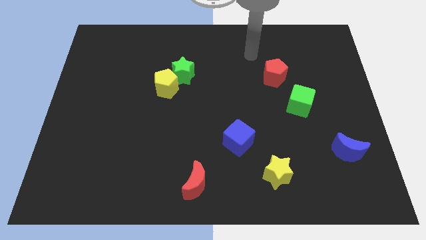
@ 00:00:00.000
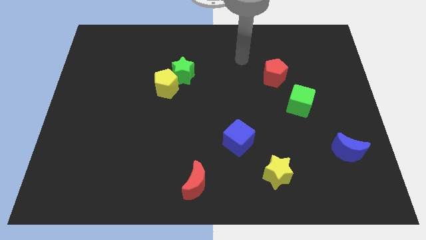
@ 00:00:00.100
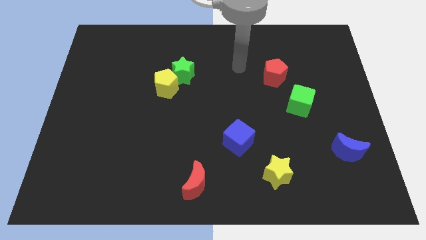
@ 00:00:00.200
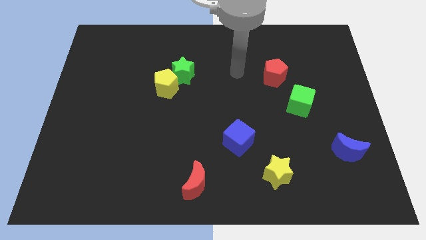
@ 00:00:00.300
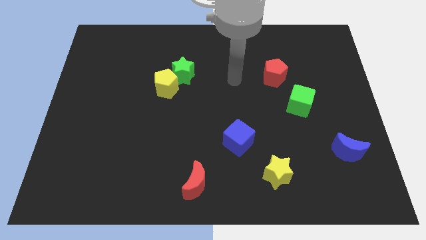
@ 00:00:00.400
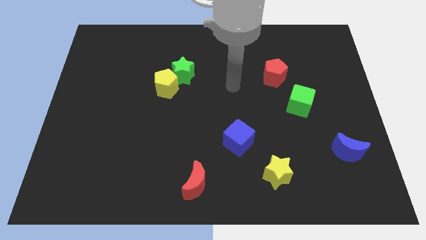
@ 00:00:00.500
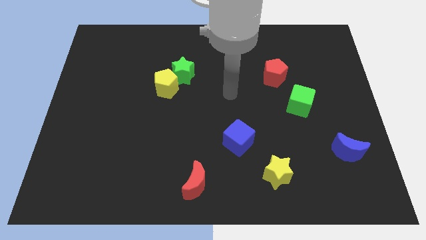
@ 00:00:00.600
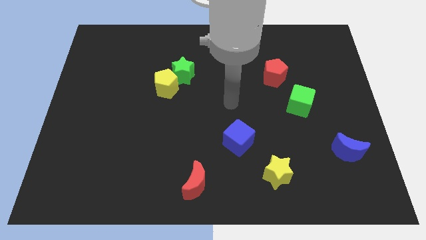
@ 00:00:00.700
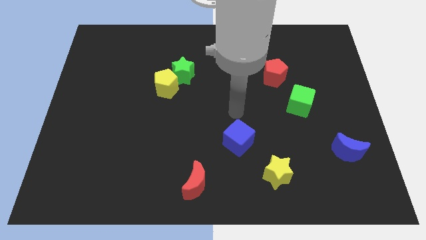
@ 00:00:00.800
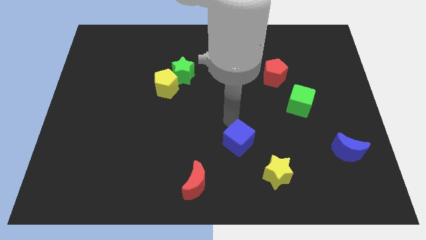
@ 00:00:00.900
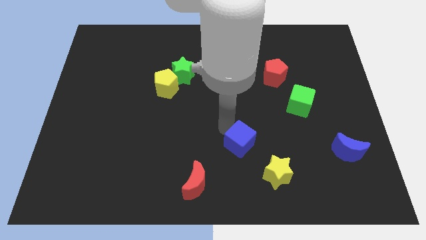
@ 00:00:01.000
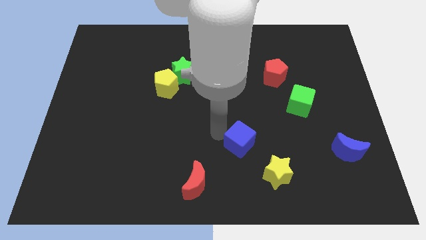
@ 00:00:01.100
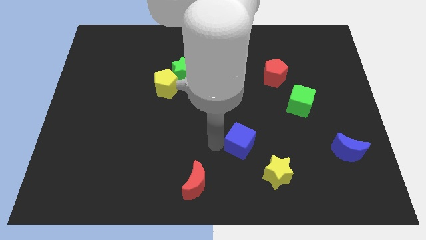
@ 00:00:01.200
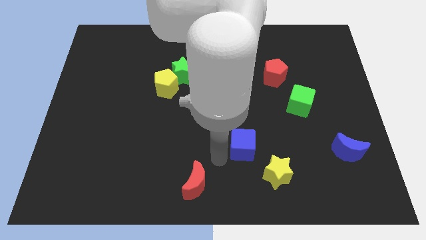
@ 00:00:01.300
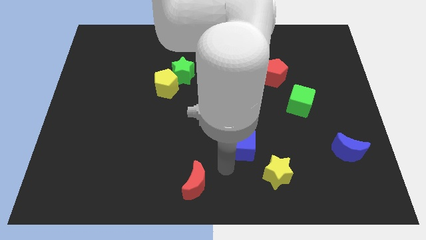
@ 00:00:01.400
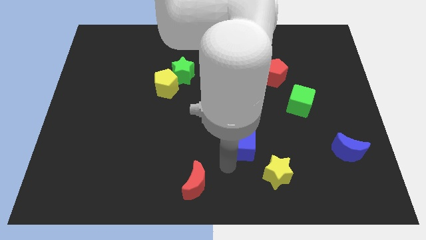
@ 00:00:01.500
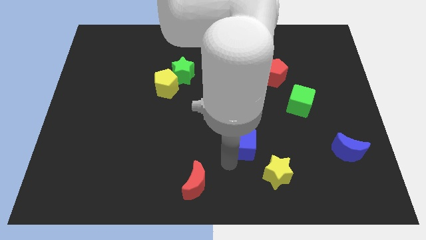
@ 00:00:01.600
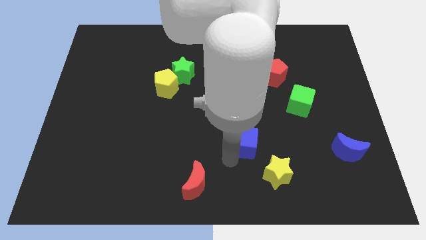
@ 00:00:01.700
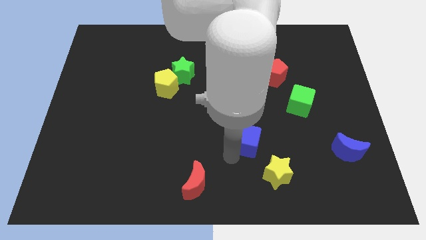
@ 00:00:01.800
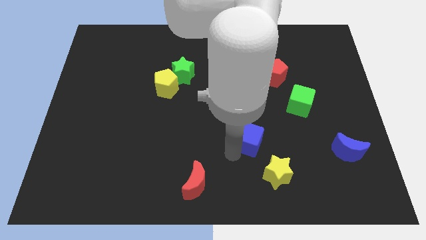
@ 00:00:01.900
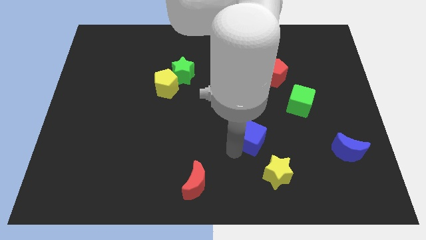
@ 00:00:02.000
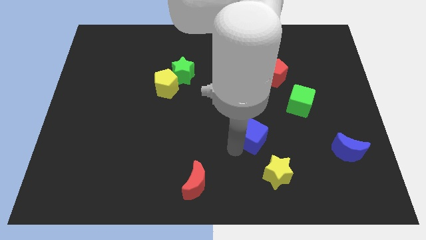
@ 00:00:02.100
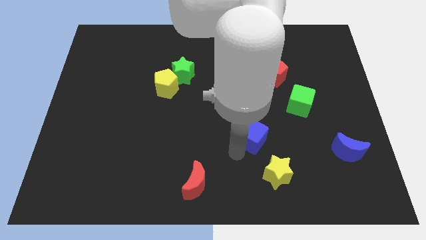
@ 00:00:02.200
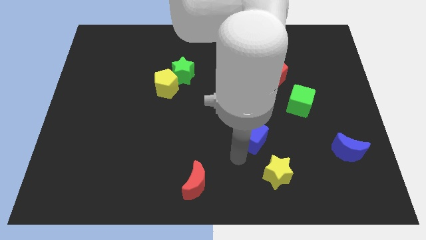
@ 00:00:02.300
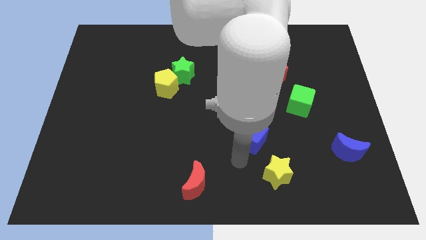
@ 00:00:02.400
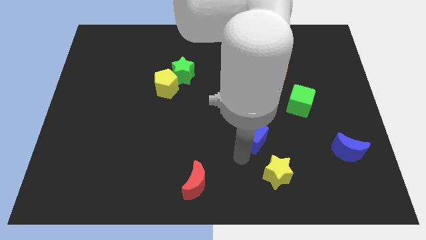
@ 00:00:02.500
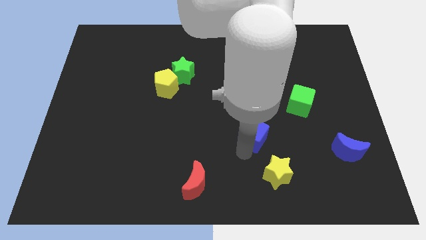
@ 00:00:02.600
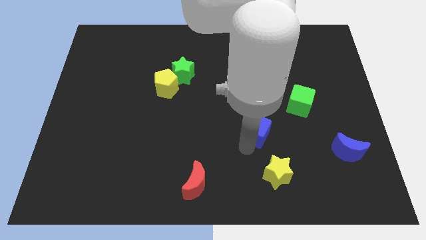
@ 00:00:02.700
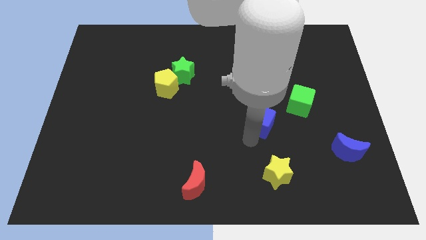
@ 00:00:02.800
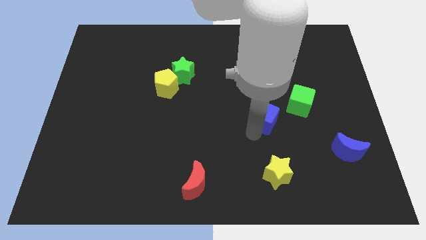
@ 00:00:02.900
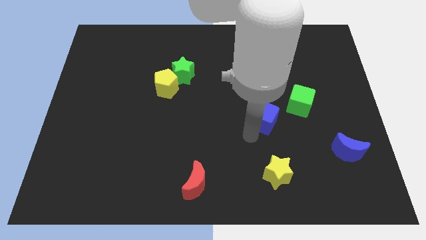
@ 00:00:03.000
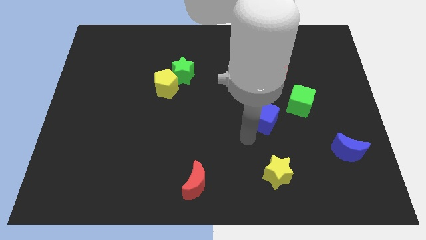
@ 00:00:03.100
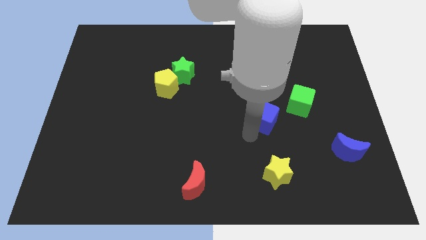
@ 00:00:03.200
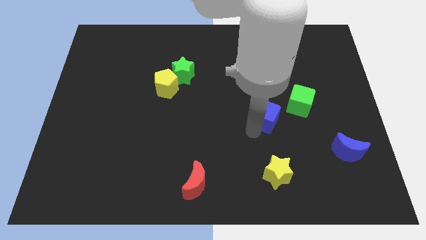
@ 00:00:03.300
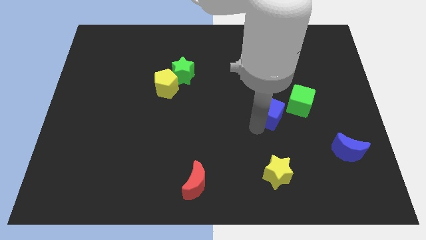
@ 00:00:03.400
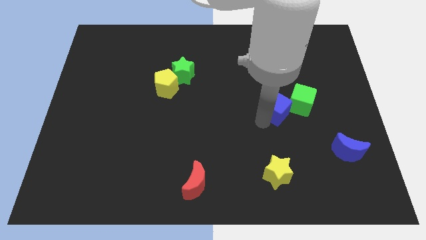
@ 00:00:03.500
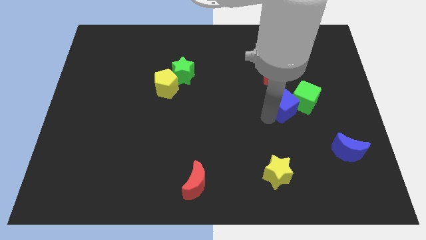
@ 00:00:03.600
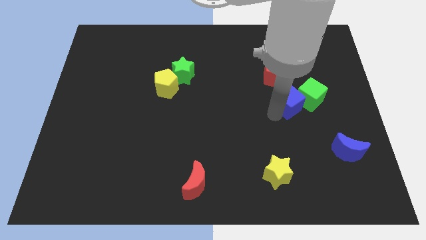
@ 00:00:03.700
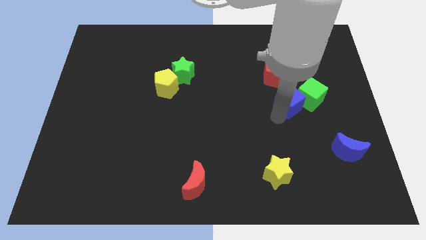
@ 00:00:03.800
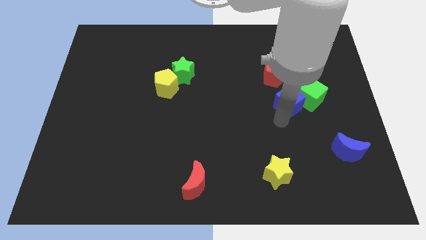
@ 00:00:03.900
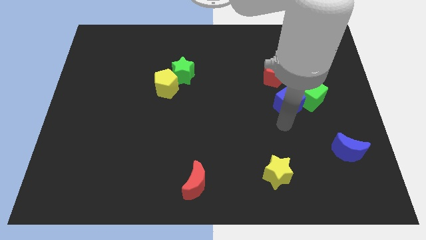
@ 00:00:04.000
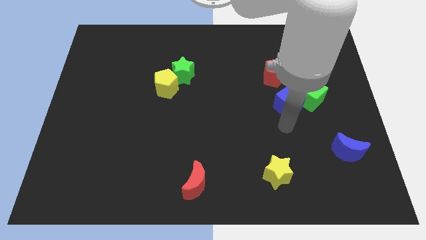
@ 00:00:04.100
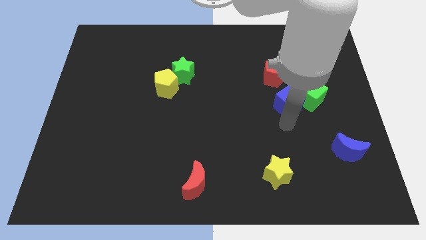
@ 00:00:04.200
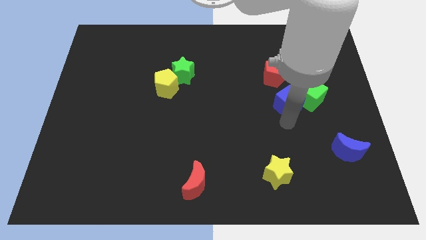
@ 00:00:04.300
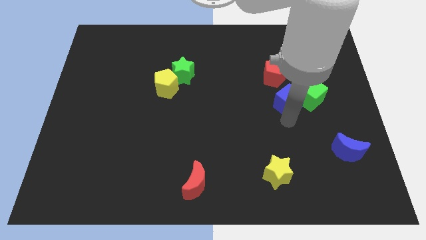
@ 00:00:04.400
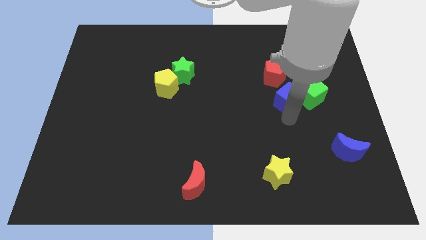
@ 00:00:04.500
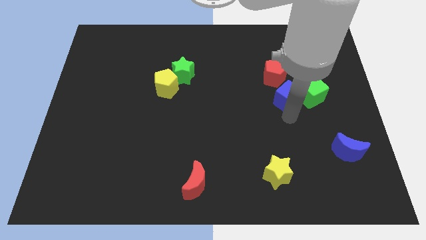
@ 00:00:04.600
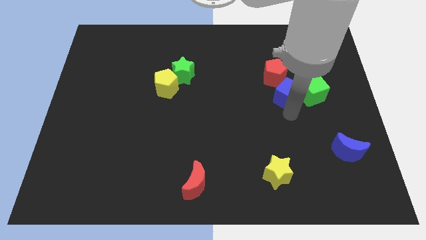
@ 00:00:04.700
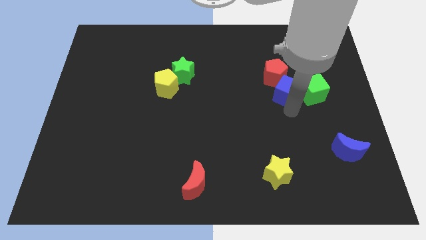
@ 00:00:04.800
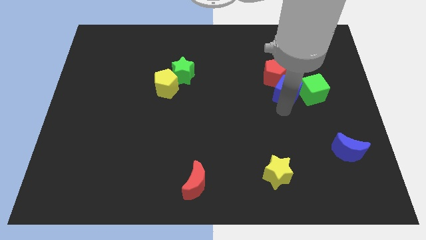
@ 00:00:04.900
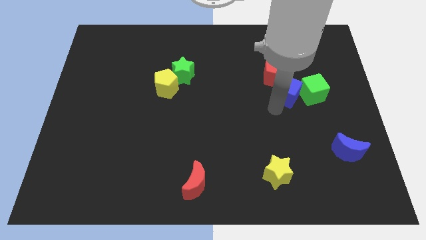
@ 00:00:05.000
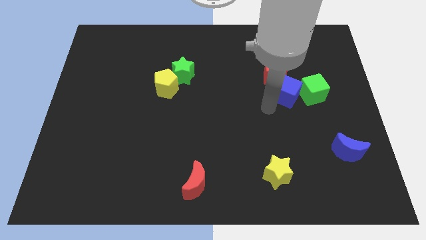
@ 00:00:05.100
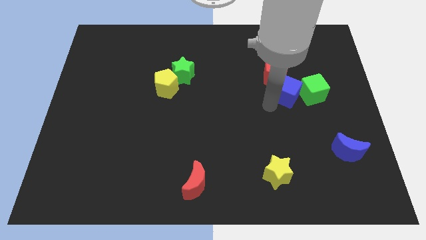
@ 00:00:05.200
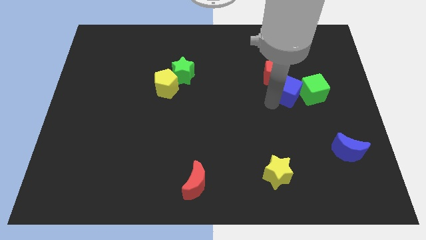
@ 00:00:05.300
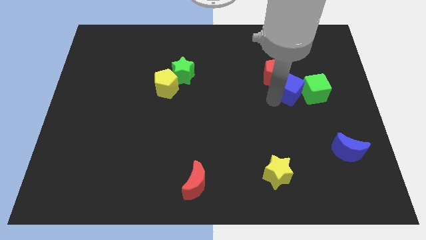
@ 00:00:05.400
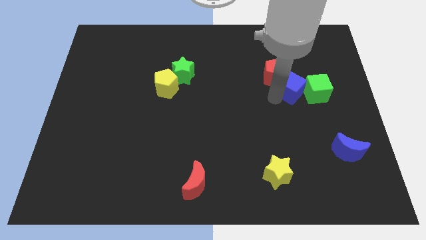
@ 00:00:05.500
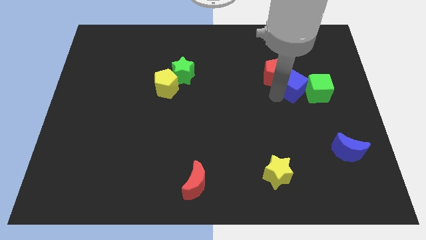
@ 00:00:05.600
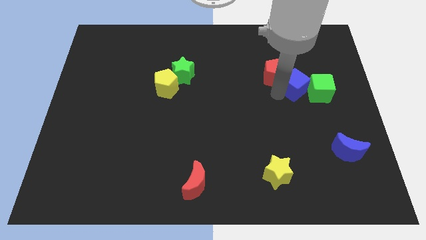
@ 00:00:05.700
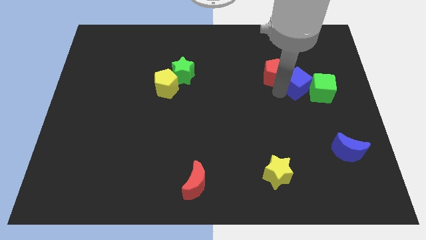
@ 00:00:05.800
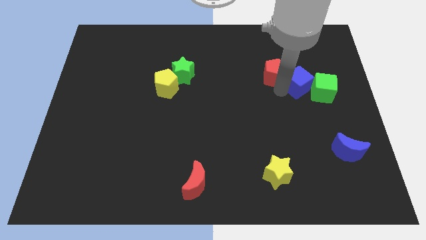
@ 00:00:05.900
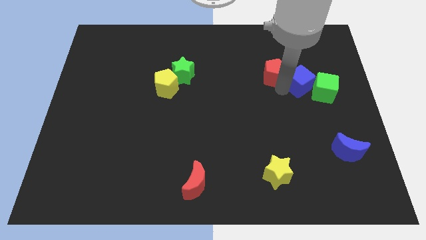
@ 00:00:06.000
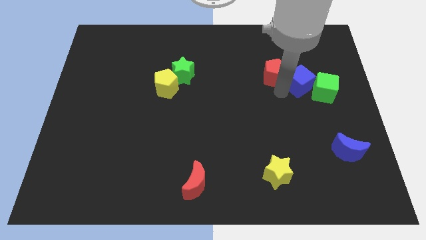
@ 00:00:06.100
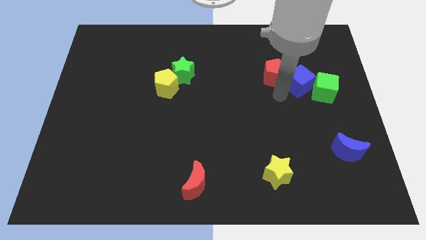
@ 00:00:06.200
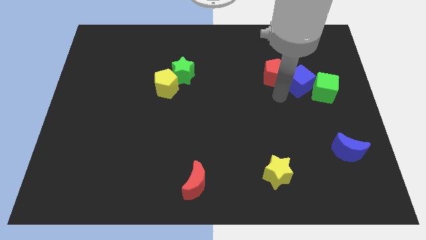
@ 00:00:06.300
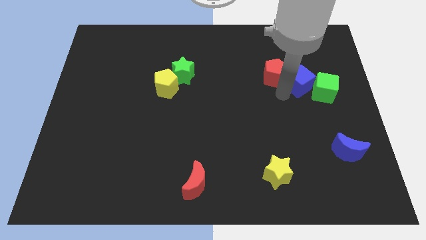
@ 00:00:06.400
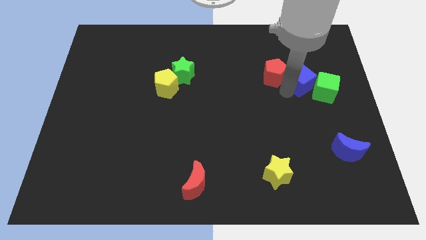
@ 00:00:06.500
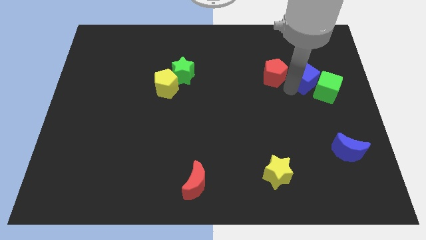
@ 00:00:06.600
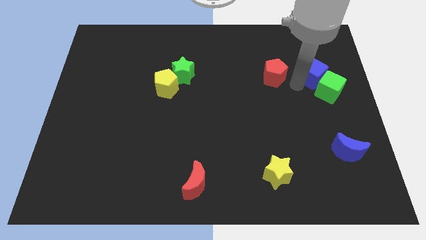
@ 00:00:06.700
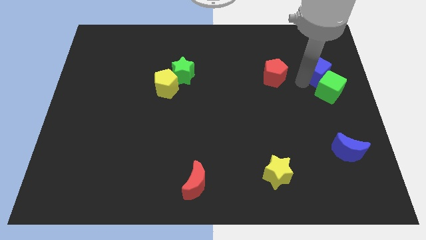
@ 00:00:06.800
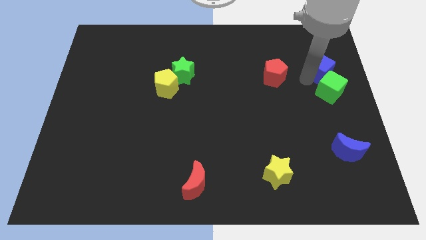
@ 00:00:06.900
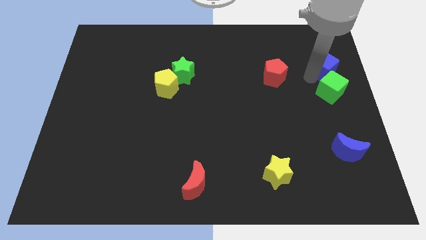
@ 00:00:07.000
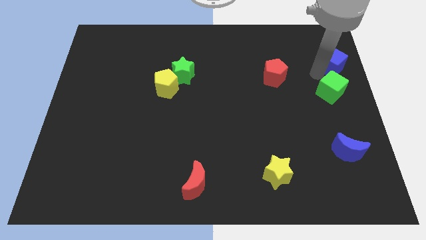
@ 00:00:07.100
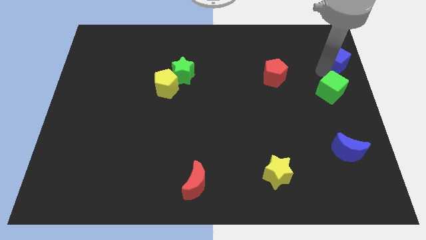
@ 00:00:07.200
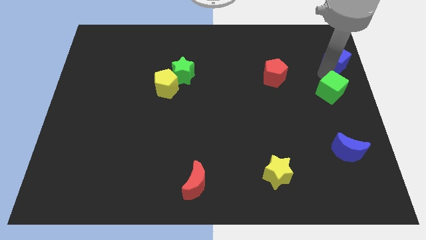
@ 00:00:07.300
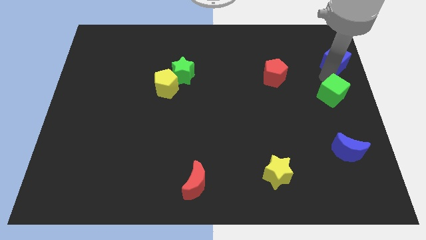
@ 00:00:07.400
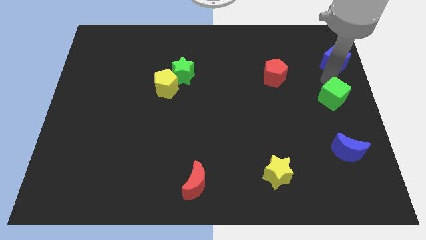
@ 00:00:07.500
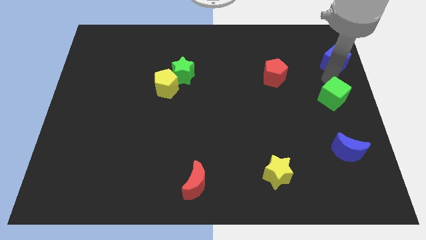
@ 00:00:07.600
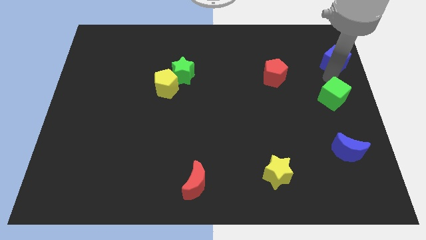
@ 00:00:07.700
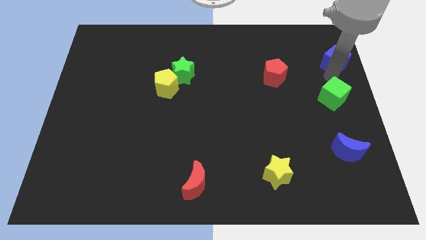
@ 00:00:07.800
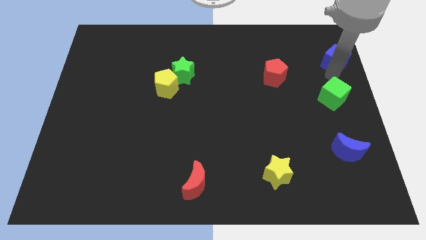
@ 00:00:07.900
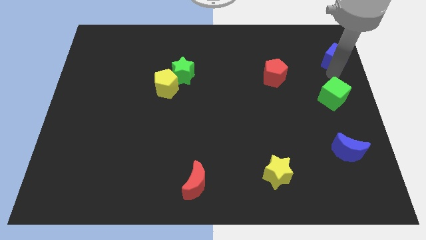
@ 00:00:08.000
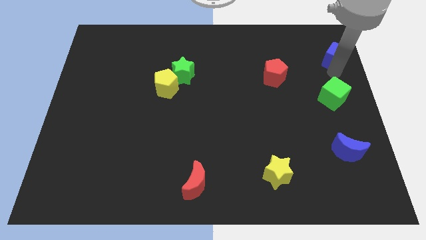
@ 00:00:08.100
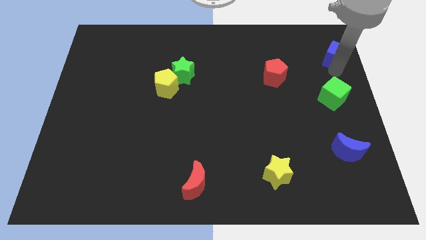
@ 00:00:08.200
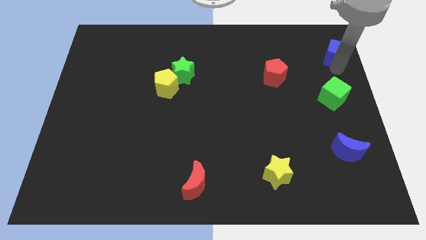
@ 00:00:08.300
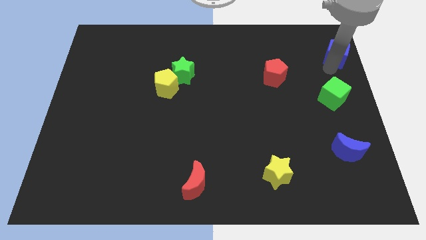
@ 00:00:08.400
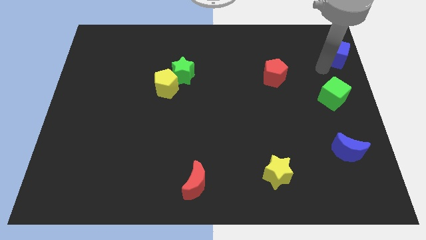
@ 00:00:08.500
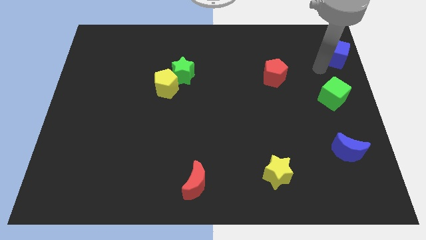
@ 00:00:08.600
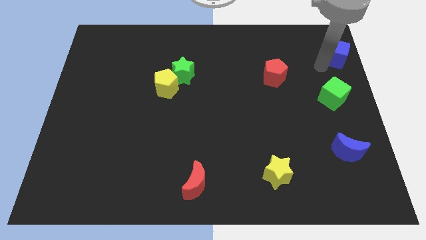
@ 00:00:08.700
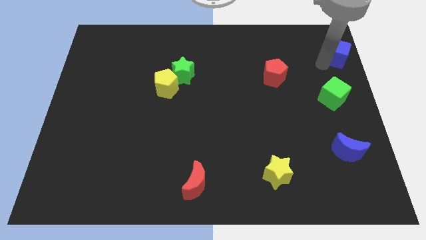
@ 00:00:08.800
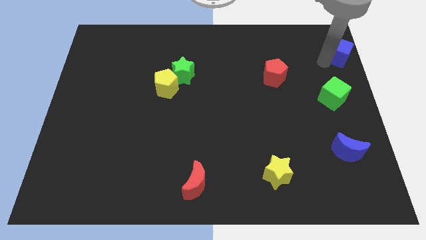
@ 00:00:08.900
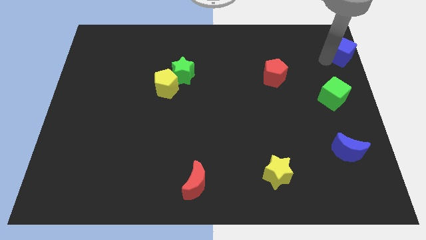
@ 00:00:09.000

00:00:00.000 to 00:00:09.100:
move the blue cube to the upper right corner
